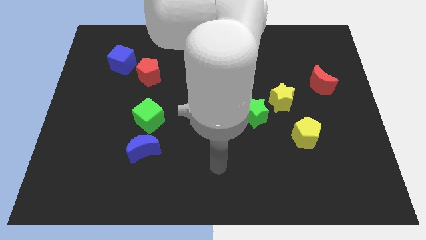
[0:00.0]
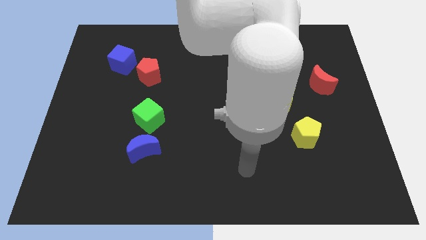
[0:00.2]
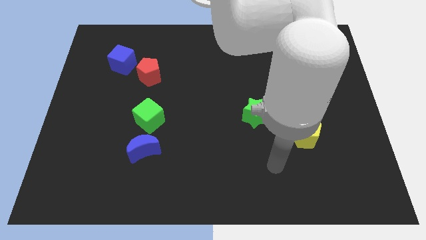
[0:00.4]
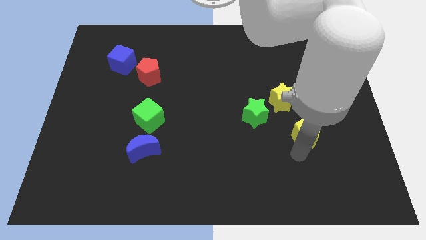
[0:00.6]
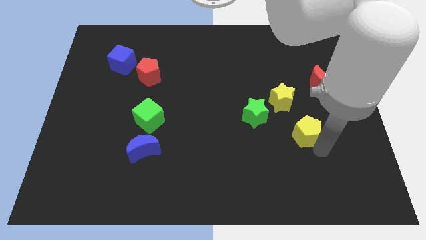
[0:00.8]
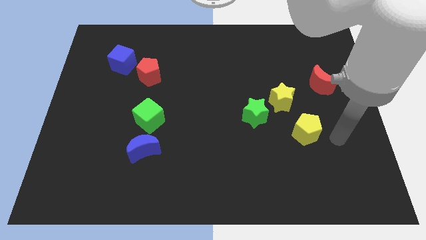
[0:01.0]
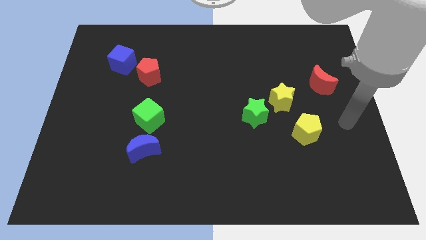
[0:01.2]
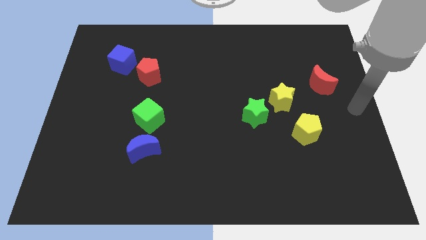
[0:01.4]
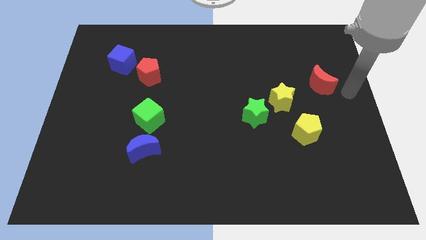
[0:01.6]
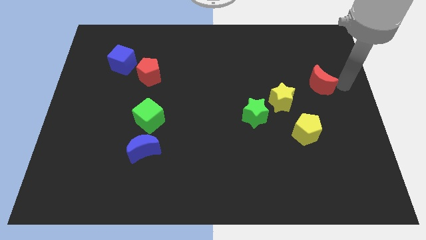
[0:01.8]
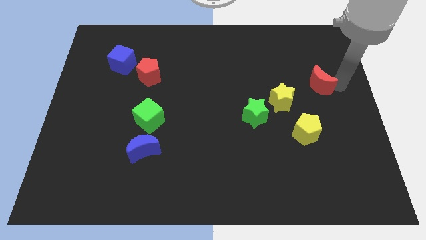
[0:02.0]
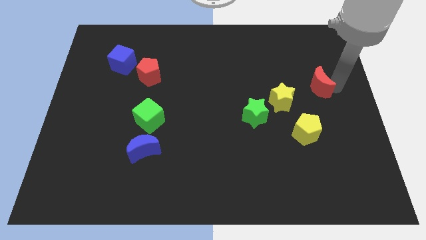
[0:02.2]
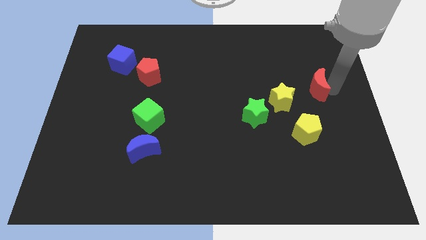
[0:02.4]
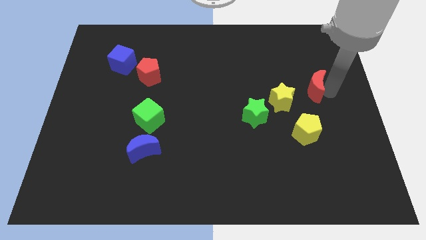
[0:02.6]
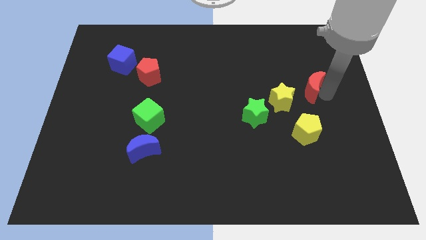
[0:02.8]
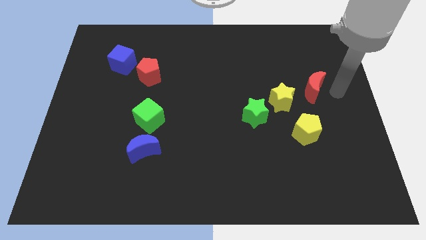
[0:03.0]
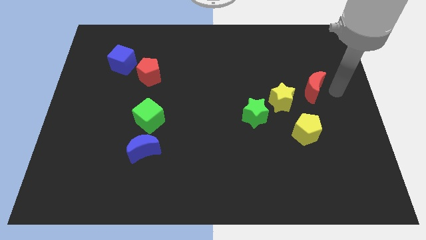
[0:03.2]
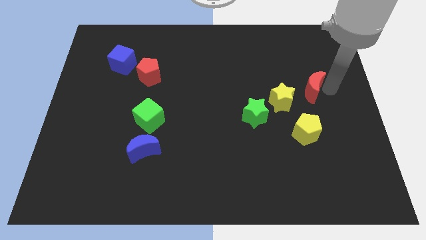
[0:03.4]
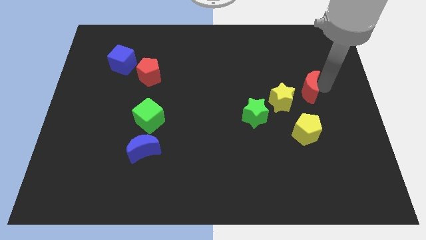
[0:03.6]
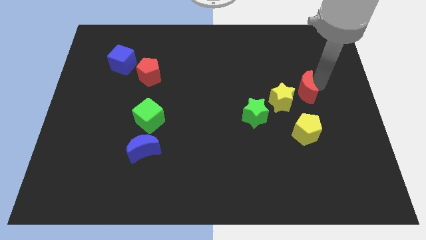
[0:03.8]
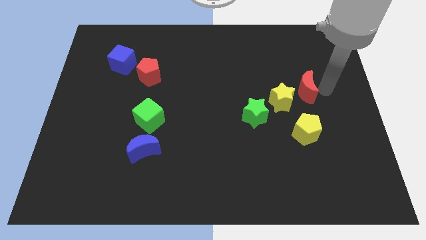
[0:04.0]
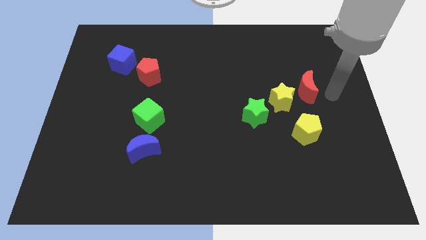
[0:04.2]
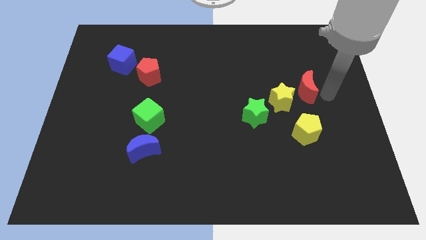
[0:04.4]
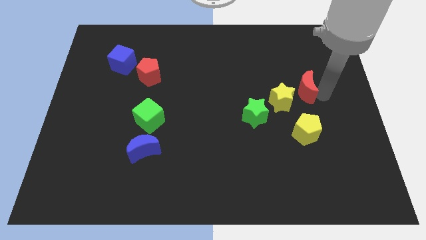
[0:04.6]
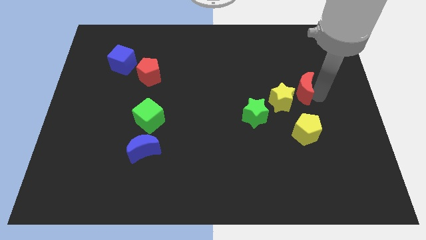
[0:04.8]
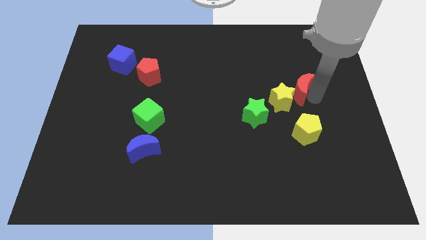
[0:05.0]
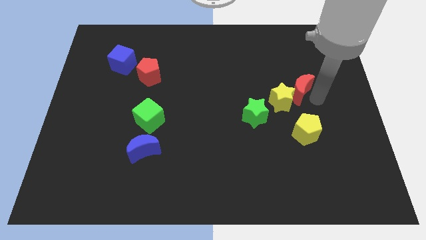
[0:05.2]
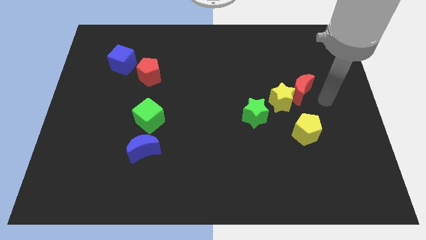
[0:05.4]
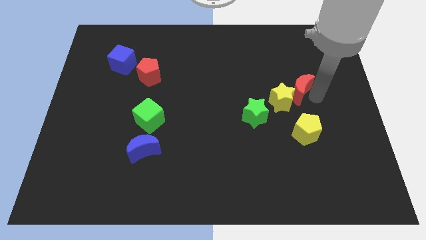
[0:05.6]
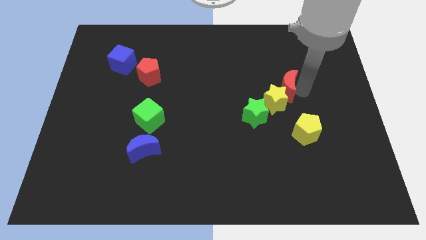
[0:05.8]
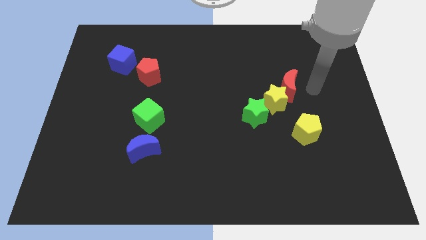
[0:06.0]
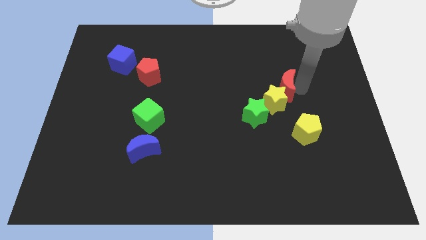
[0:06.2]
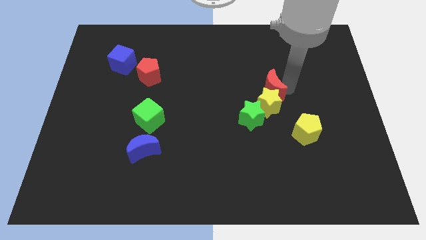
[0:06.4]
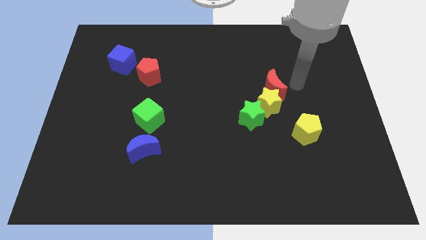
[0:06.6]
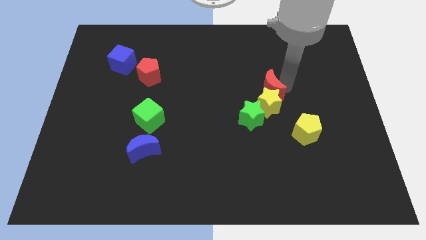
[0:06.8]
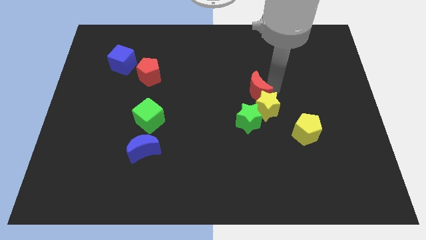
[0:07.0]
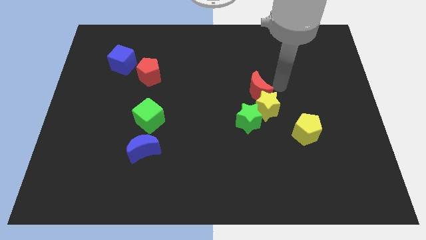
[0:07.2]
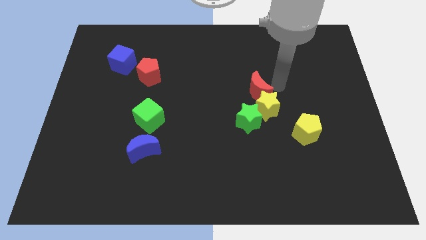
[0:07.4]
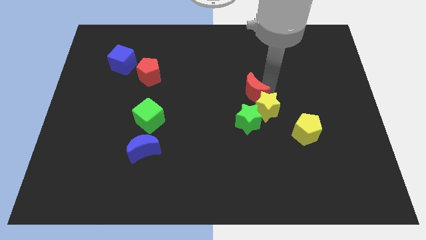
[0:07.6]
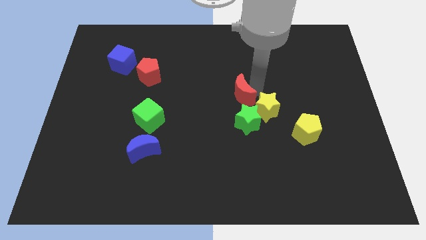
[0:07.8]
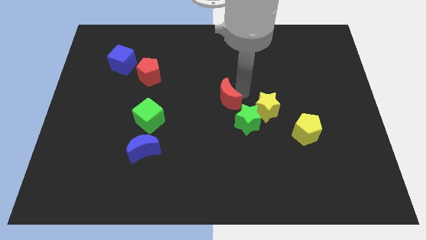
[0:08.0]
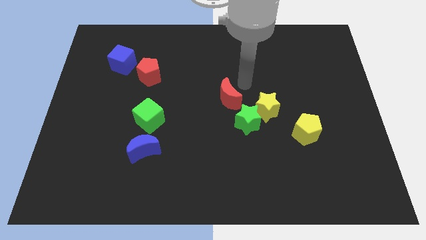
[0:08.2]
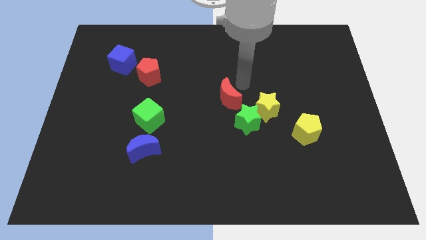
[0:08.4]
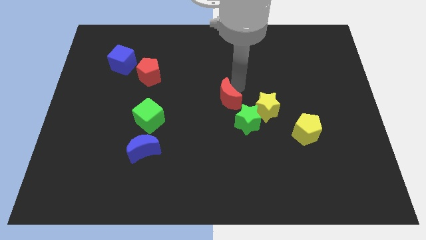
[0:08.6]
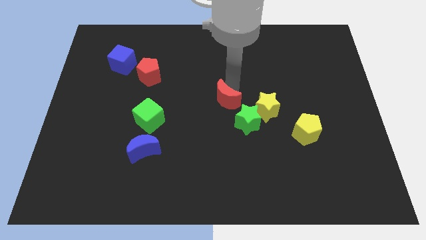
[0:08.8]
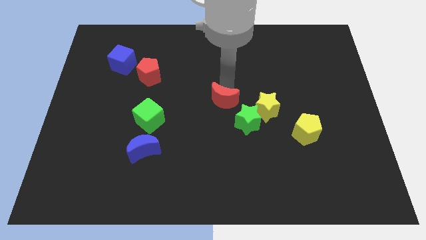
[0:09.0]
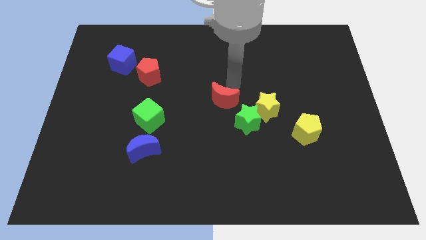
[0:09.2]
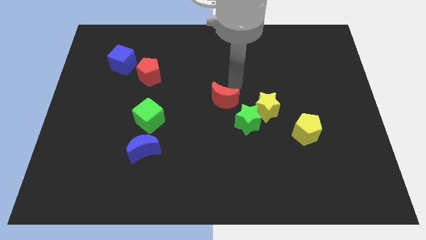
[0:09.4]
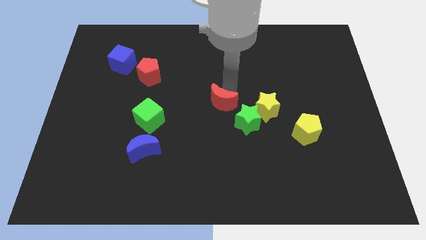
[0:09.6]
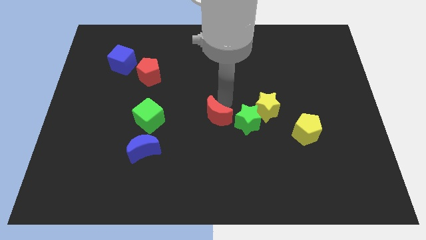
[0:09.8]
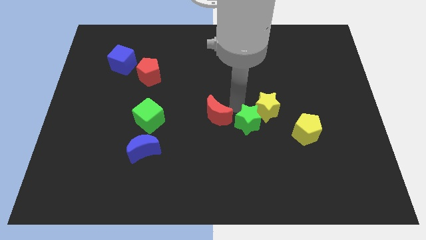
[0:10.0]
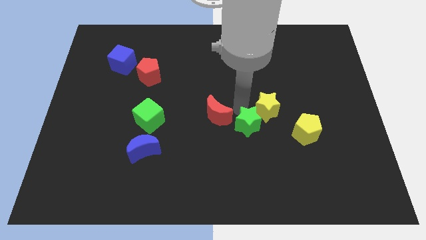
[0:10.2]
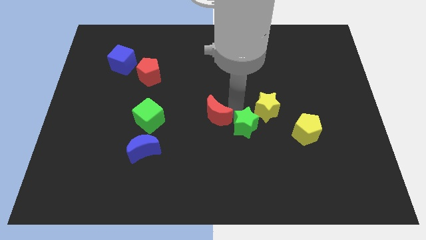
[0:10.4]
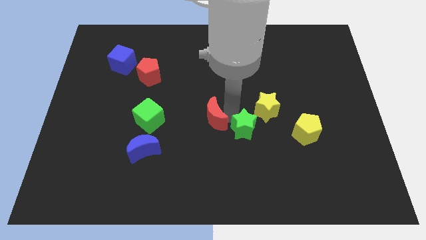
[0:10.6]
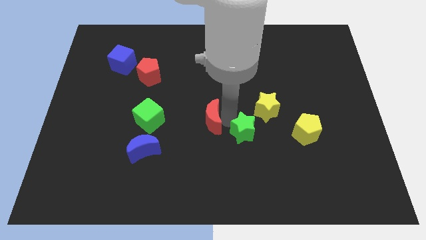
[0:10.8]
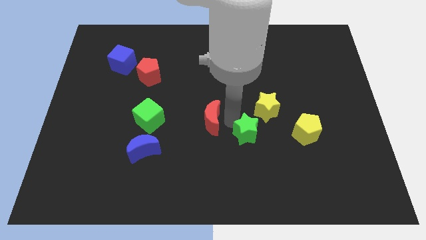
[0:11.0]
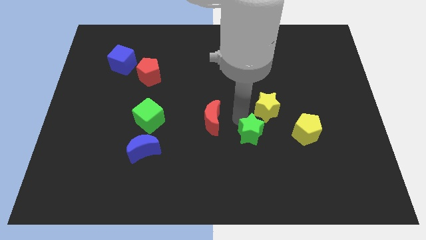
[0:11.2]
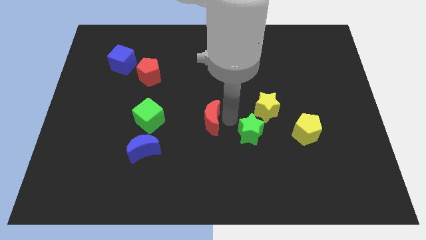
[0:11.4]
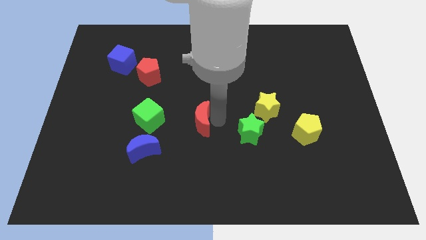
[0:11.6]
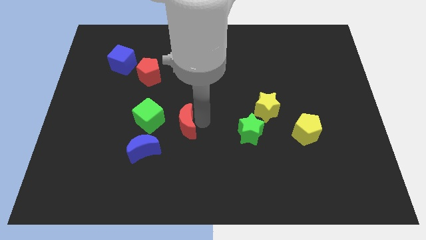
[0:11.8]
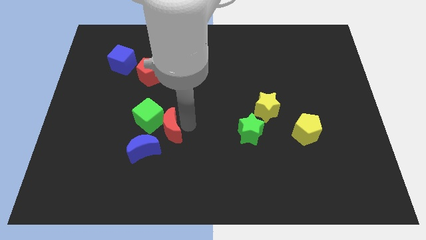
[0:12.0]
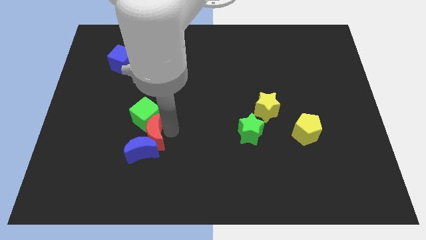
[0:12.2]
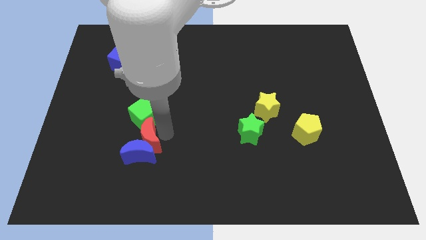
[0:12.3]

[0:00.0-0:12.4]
move the red moon diagonally up and to the left of the blue moon

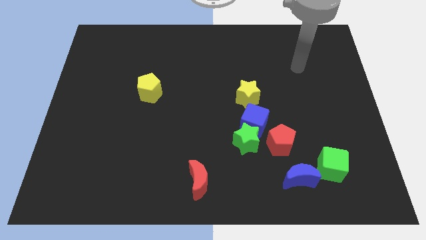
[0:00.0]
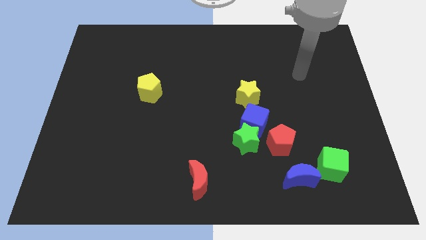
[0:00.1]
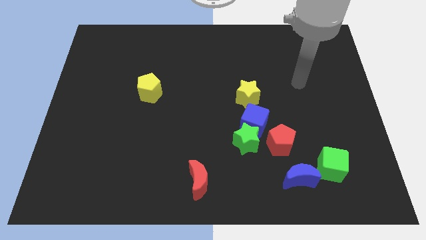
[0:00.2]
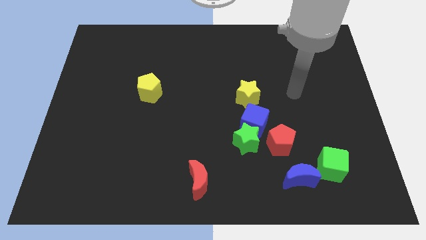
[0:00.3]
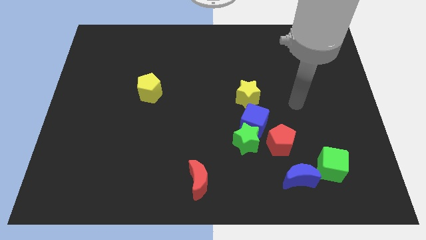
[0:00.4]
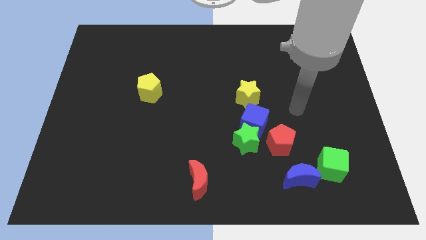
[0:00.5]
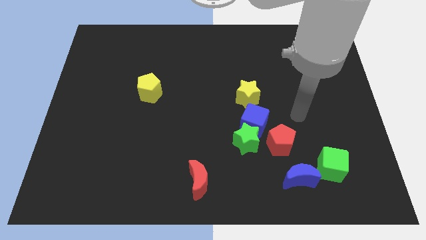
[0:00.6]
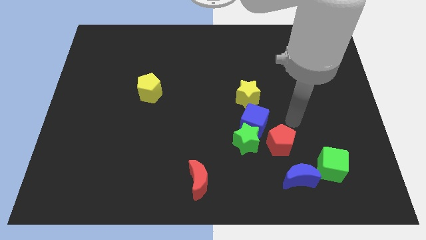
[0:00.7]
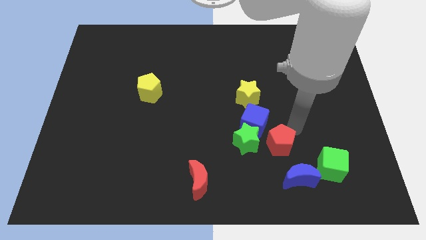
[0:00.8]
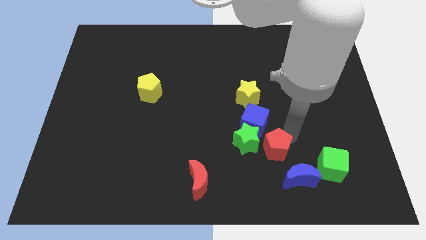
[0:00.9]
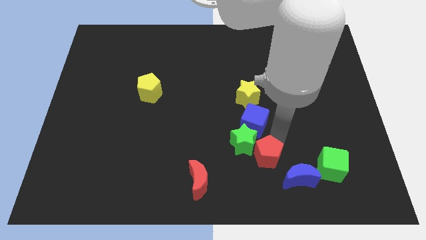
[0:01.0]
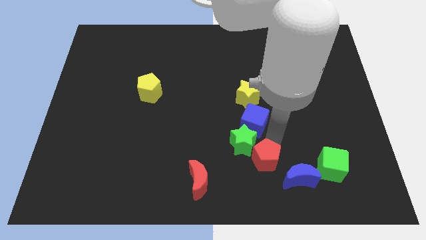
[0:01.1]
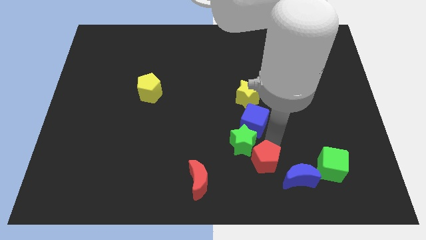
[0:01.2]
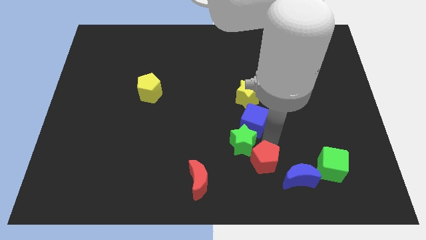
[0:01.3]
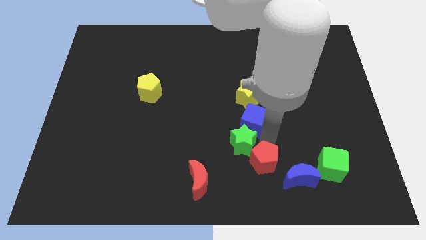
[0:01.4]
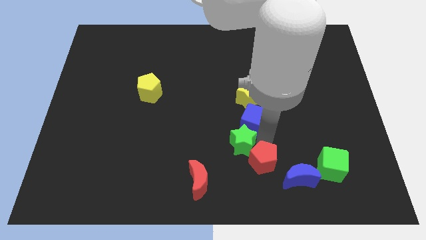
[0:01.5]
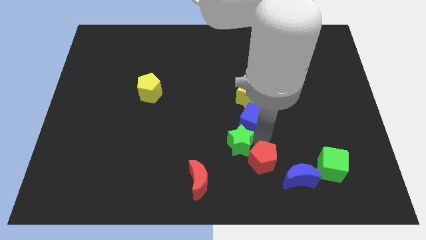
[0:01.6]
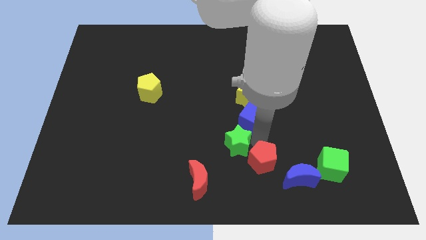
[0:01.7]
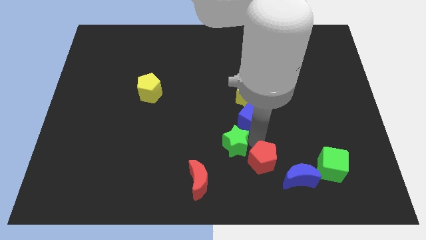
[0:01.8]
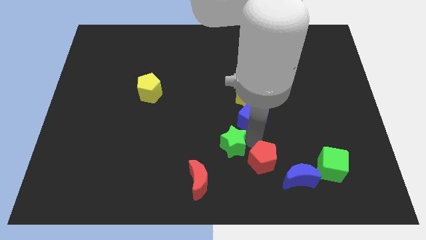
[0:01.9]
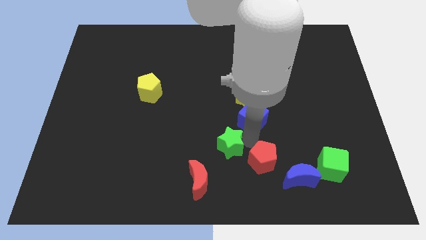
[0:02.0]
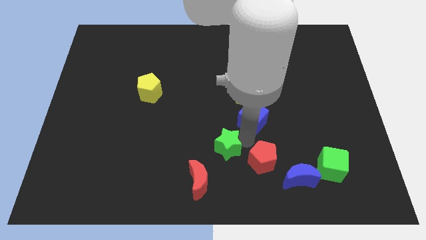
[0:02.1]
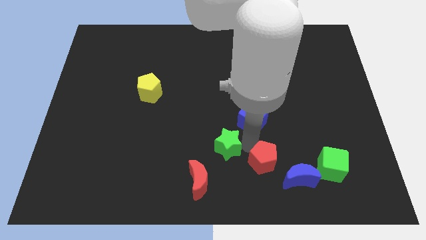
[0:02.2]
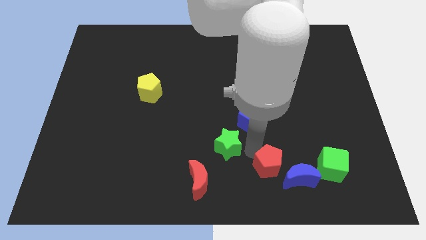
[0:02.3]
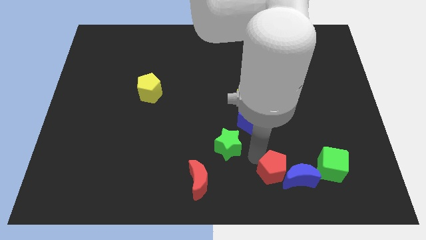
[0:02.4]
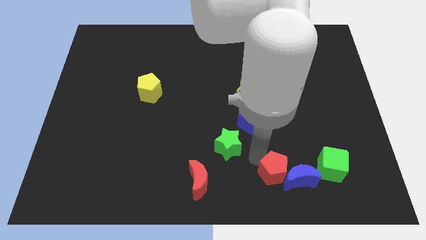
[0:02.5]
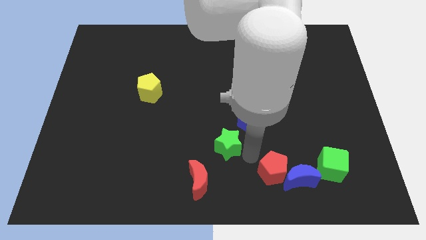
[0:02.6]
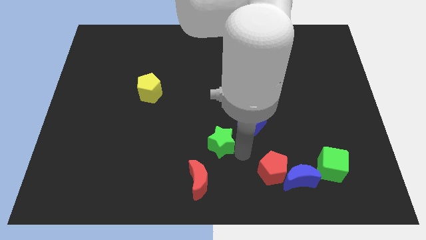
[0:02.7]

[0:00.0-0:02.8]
slide the green star above the red moon
